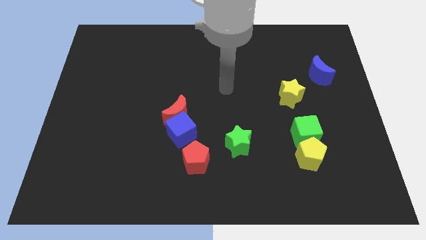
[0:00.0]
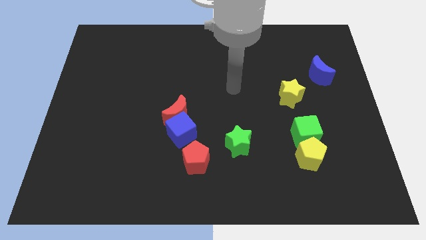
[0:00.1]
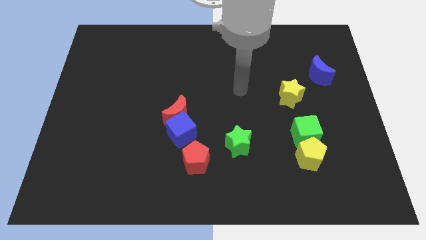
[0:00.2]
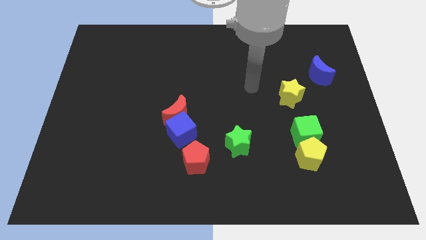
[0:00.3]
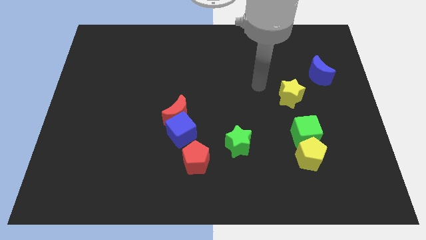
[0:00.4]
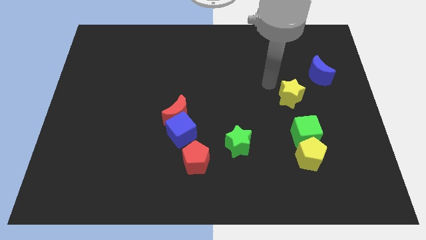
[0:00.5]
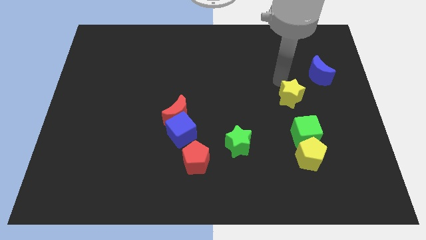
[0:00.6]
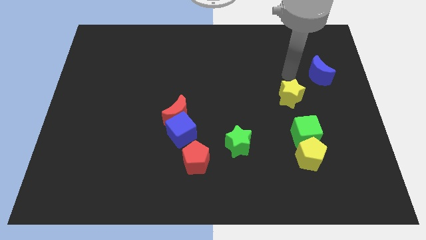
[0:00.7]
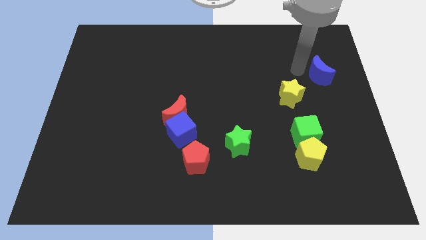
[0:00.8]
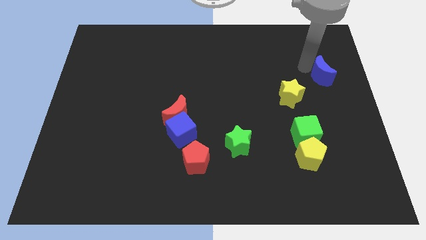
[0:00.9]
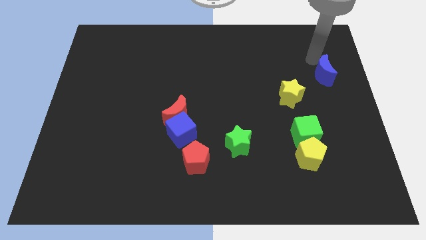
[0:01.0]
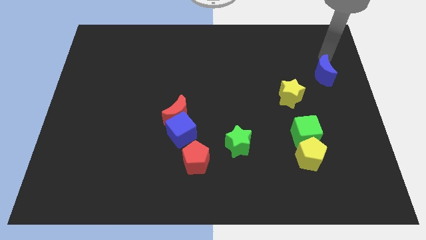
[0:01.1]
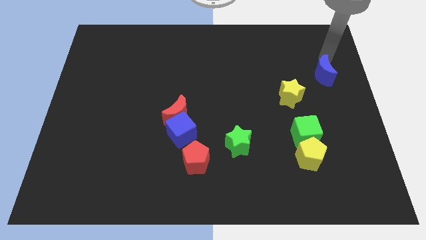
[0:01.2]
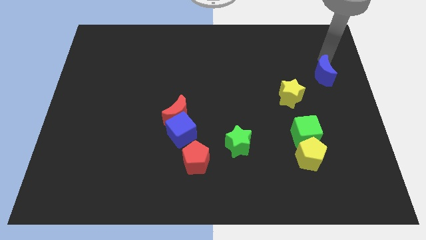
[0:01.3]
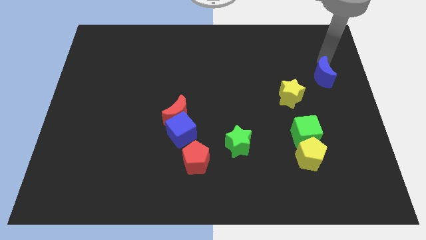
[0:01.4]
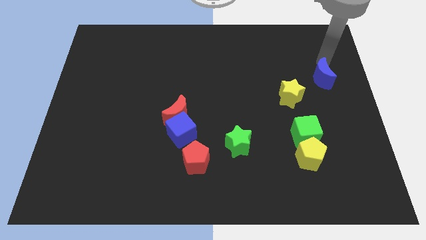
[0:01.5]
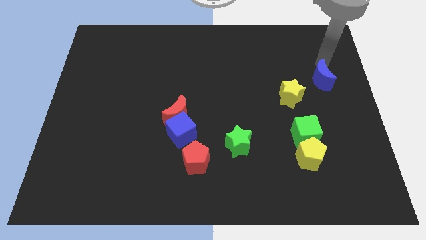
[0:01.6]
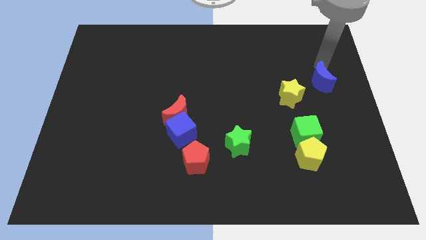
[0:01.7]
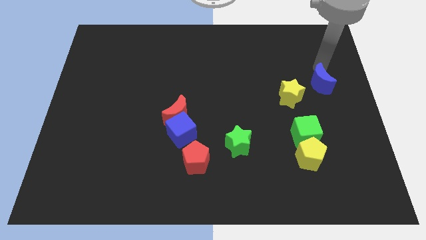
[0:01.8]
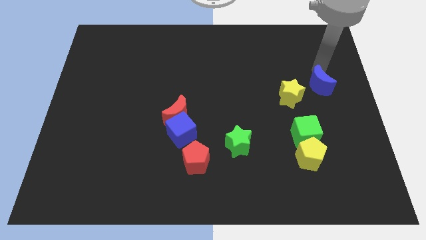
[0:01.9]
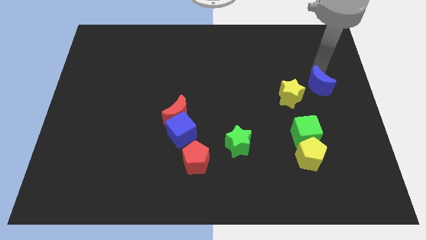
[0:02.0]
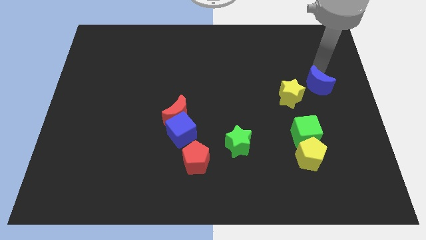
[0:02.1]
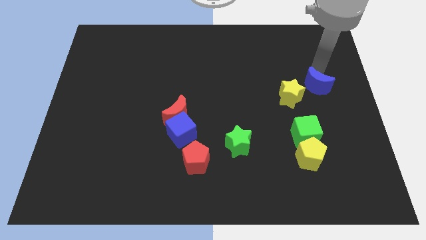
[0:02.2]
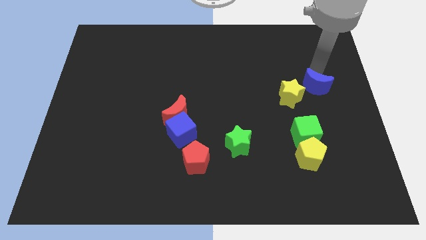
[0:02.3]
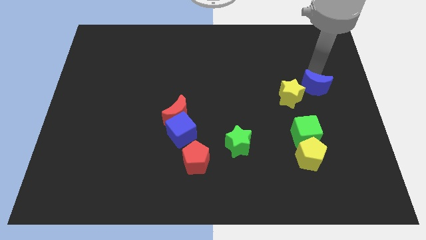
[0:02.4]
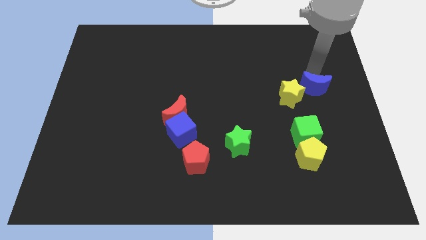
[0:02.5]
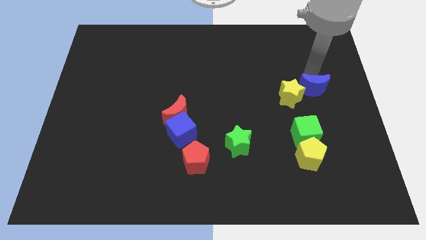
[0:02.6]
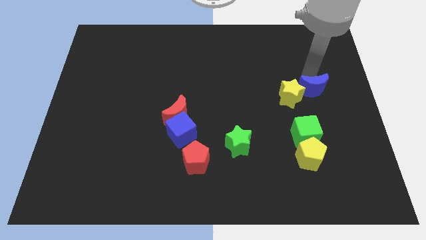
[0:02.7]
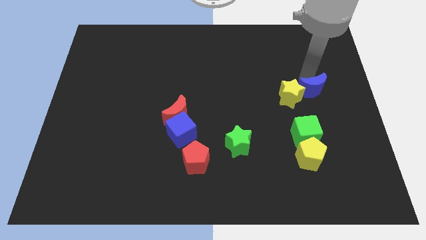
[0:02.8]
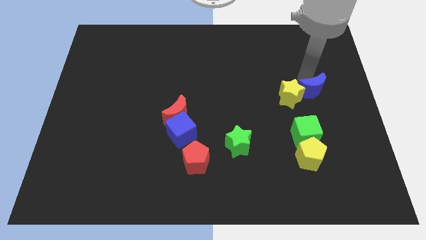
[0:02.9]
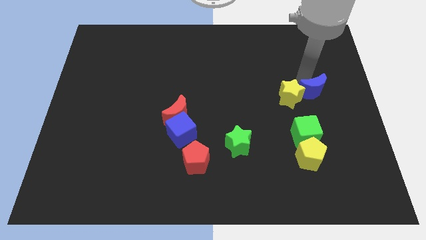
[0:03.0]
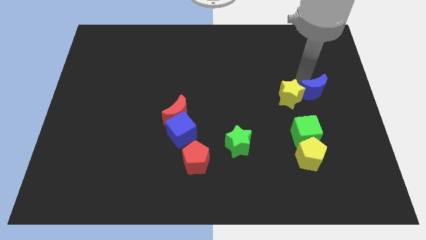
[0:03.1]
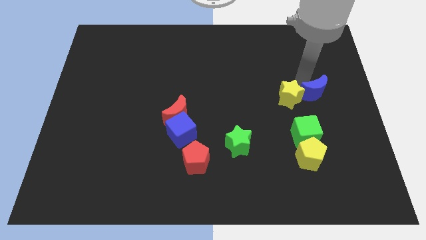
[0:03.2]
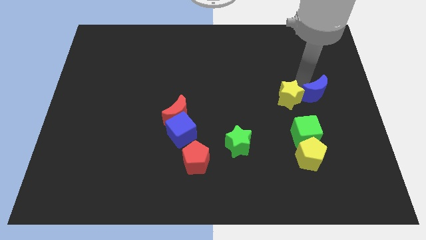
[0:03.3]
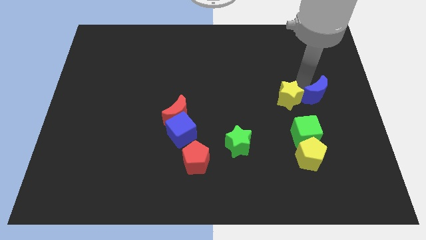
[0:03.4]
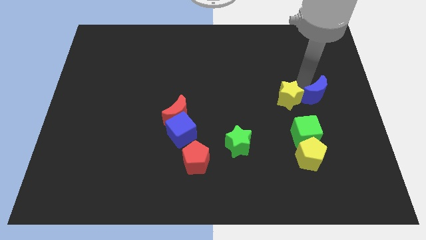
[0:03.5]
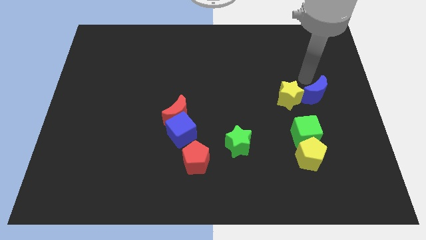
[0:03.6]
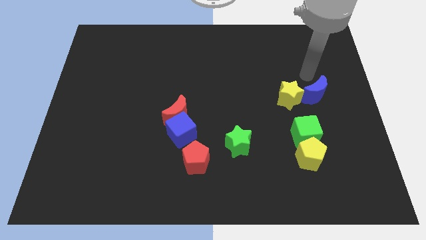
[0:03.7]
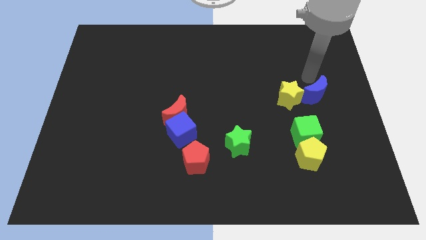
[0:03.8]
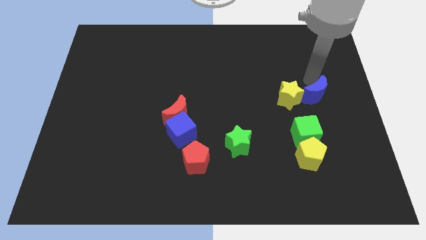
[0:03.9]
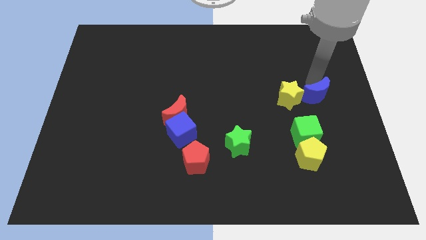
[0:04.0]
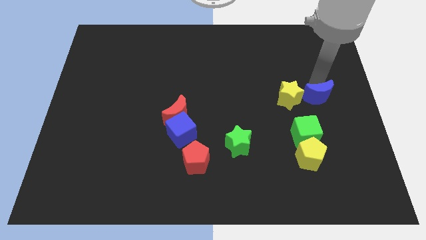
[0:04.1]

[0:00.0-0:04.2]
slightly slide the blue moon down

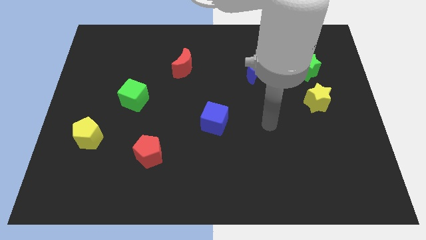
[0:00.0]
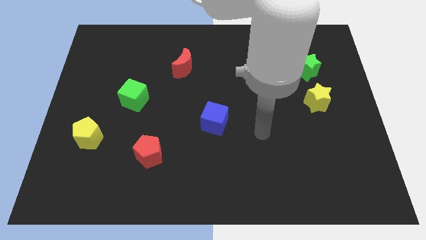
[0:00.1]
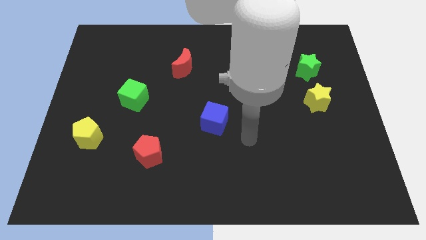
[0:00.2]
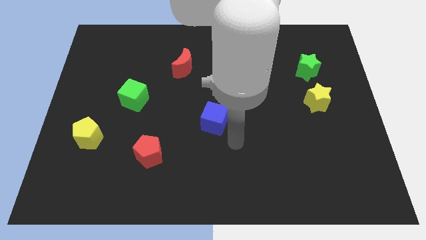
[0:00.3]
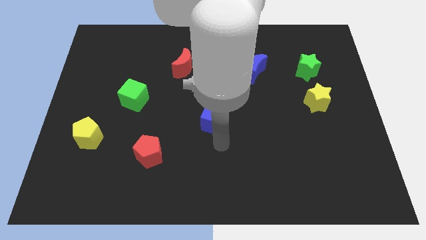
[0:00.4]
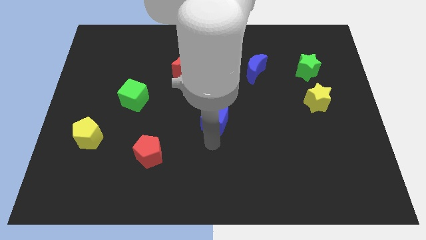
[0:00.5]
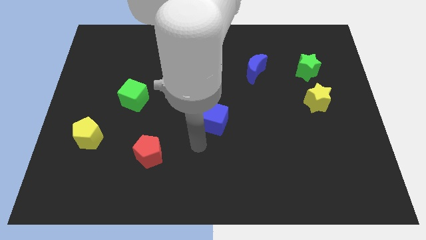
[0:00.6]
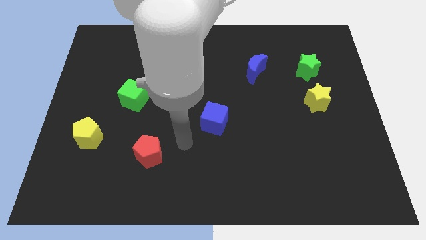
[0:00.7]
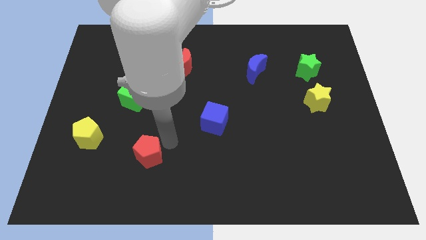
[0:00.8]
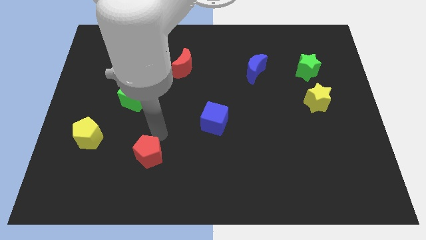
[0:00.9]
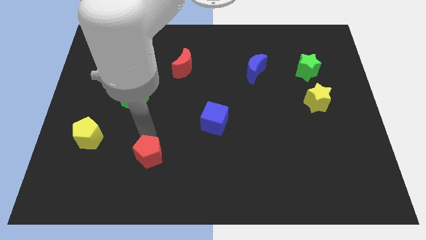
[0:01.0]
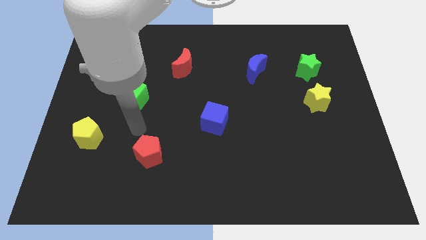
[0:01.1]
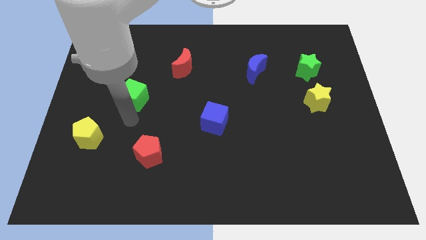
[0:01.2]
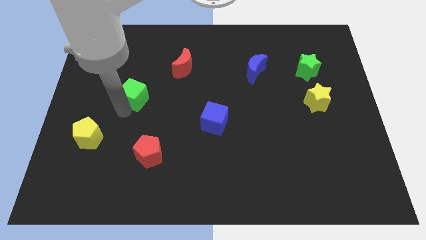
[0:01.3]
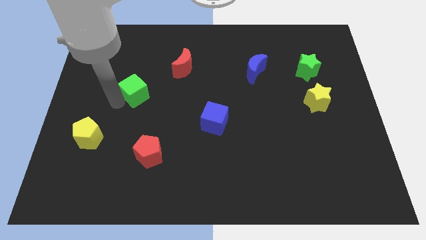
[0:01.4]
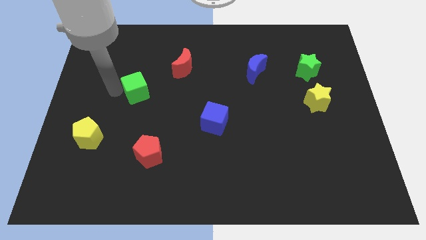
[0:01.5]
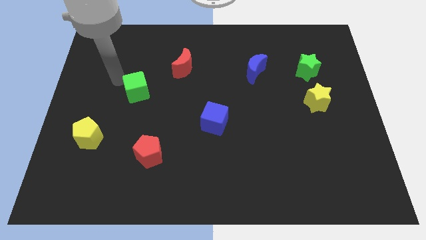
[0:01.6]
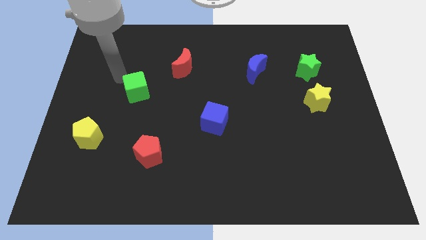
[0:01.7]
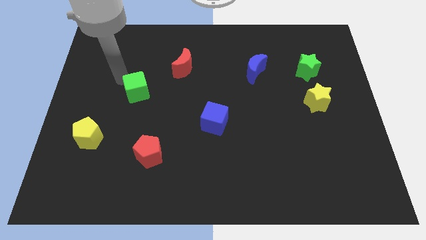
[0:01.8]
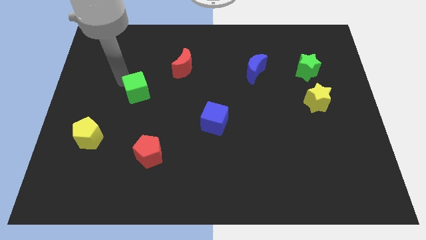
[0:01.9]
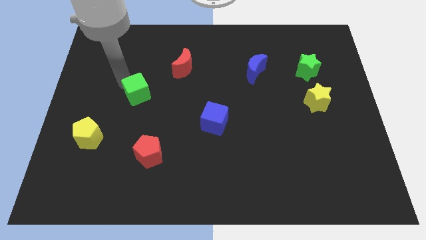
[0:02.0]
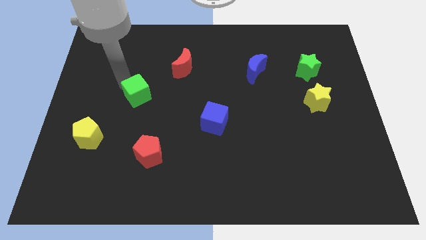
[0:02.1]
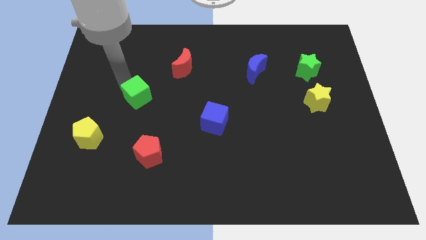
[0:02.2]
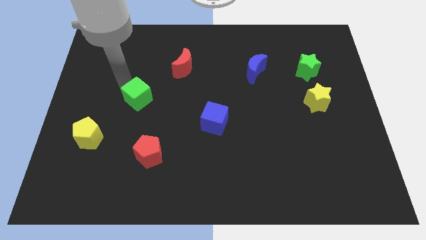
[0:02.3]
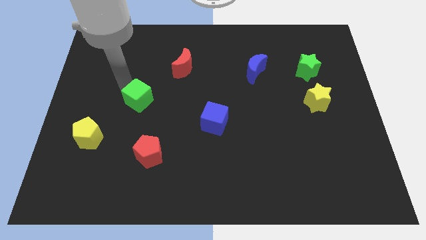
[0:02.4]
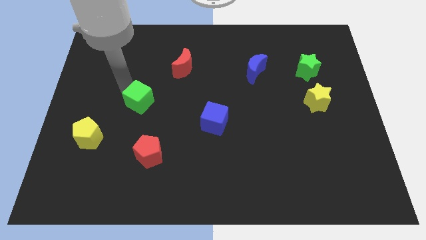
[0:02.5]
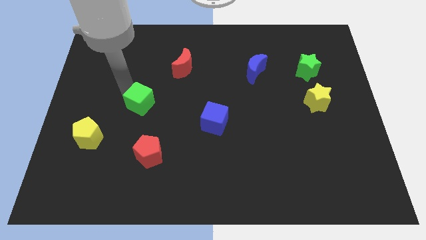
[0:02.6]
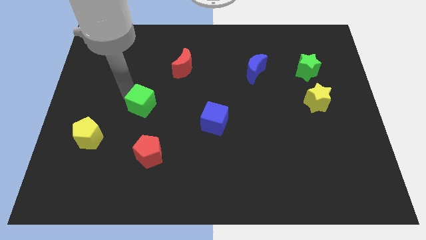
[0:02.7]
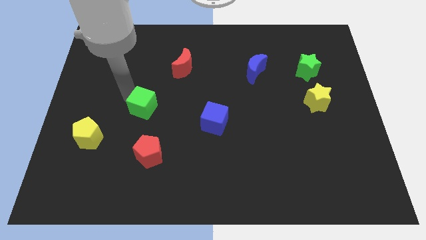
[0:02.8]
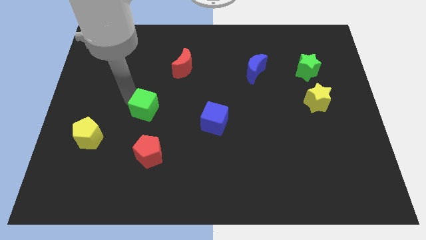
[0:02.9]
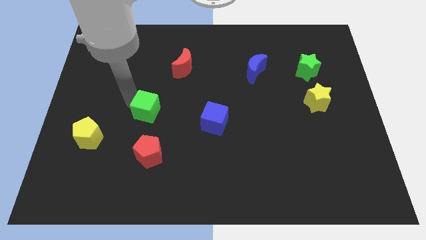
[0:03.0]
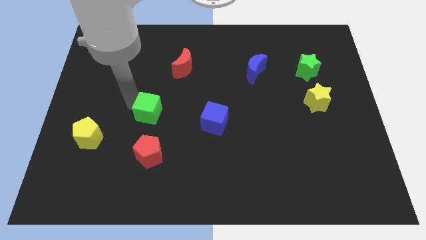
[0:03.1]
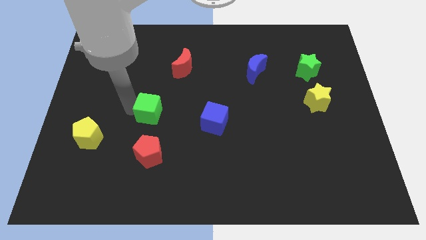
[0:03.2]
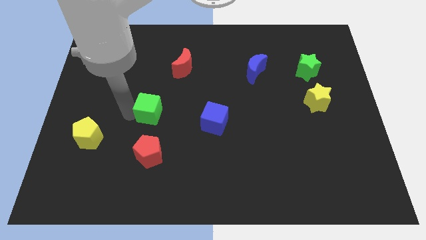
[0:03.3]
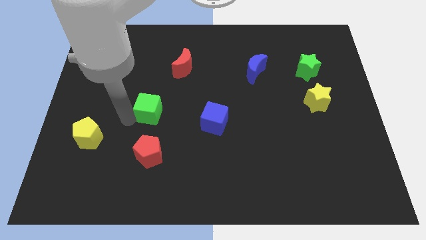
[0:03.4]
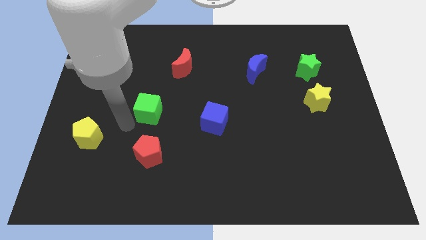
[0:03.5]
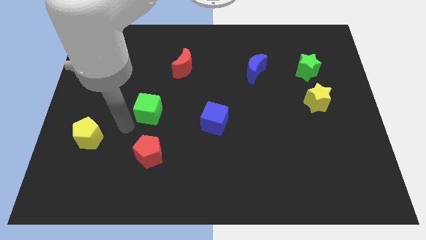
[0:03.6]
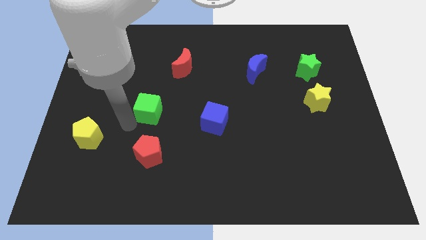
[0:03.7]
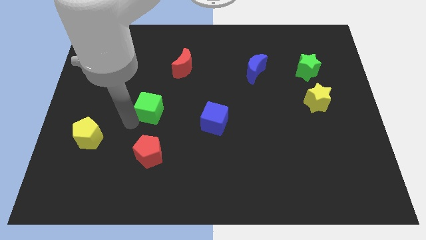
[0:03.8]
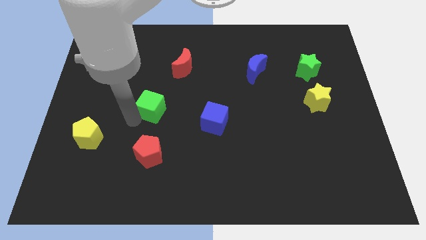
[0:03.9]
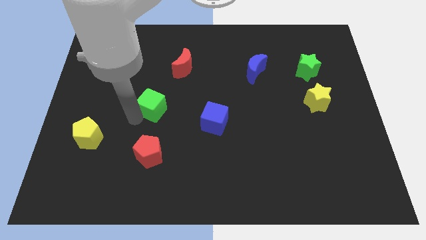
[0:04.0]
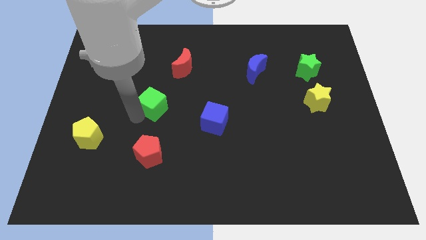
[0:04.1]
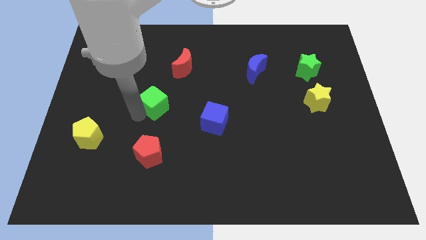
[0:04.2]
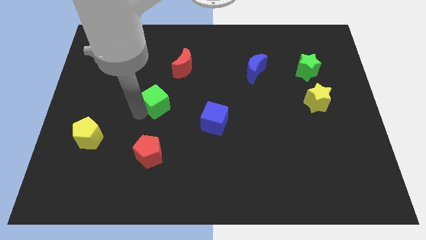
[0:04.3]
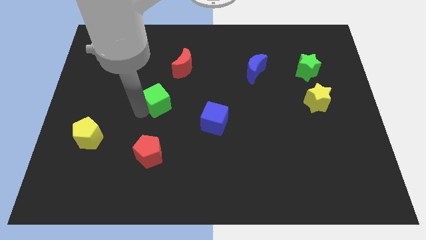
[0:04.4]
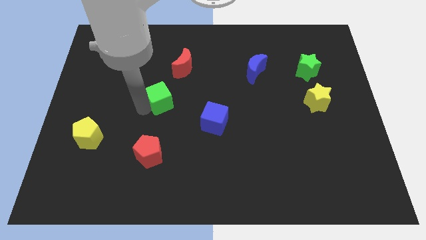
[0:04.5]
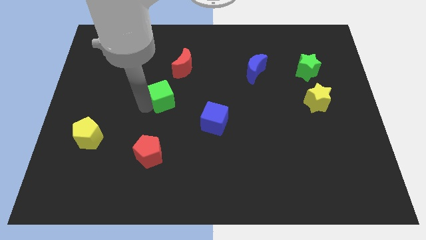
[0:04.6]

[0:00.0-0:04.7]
slide the green cube right slightly
